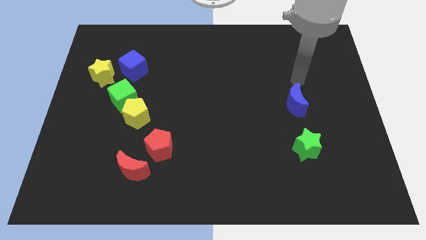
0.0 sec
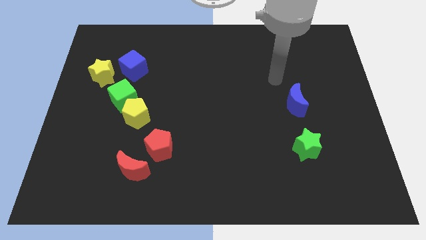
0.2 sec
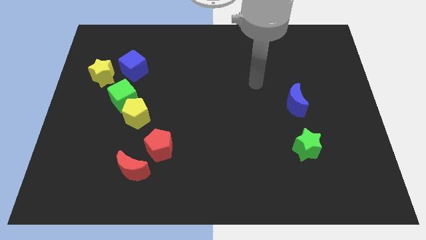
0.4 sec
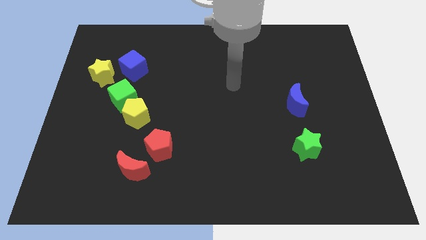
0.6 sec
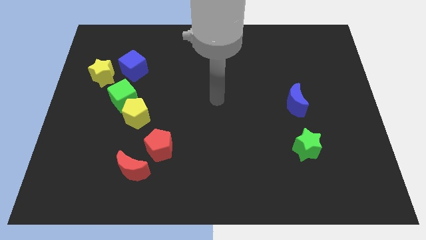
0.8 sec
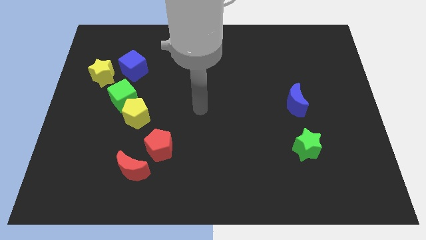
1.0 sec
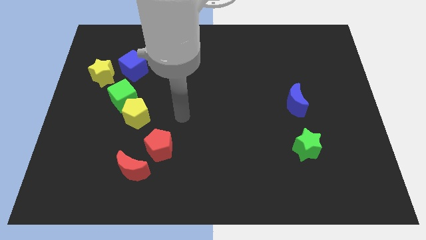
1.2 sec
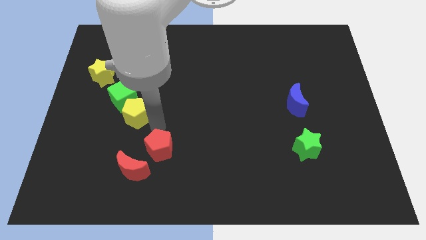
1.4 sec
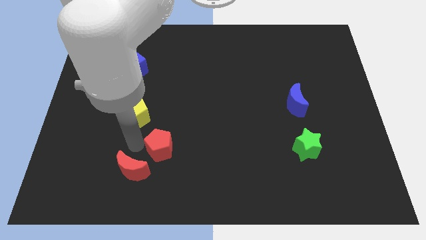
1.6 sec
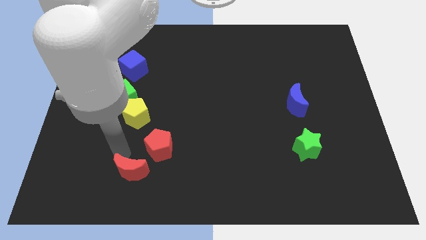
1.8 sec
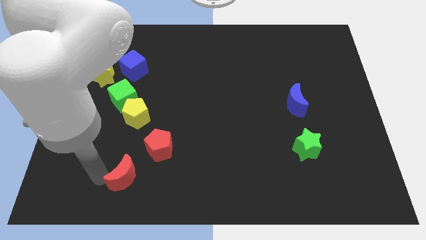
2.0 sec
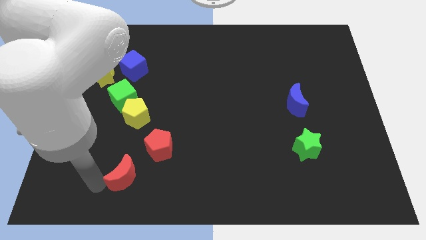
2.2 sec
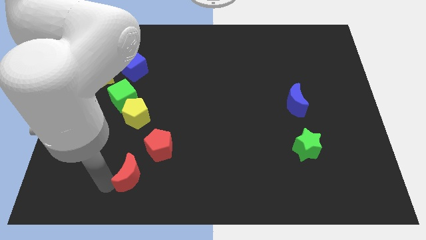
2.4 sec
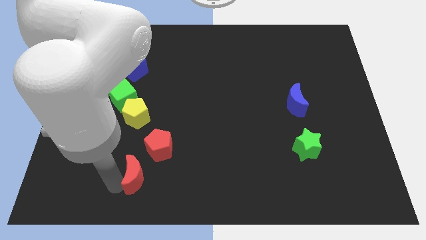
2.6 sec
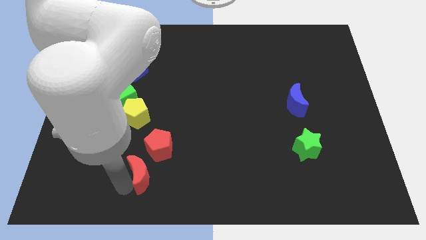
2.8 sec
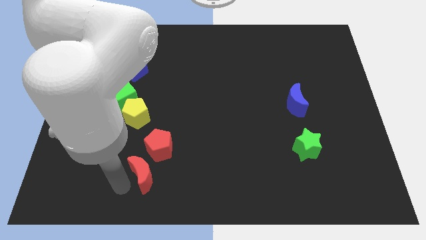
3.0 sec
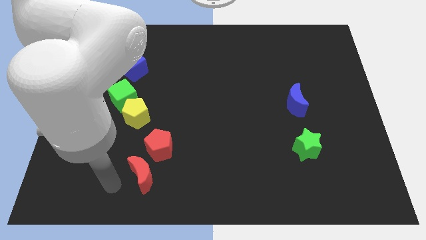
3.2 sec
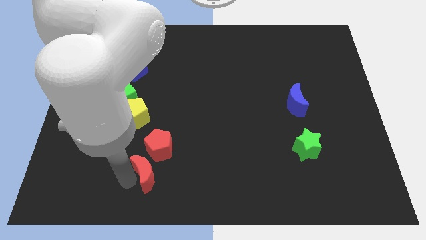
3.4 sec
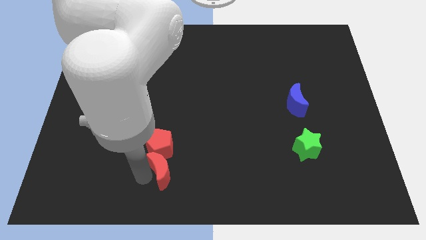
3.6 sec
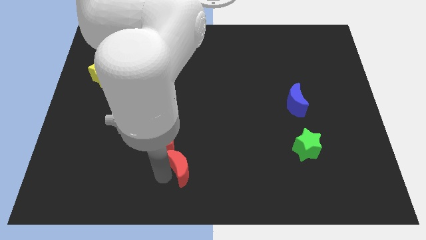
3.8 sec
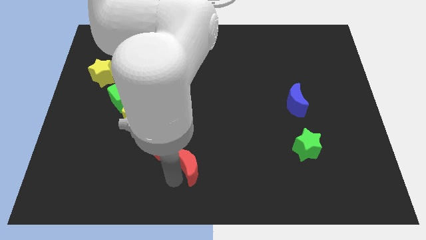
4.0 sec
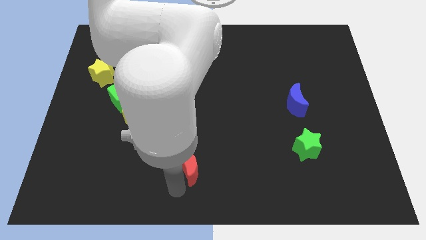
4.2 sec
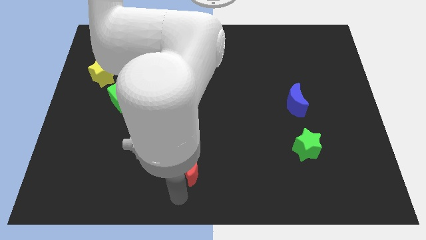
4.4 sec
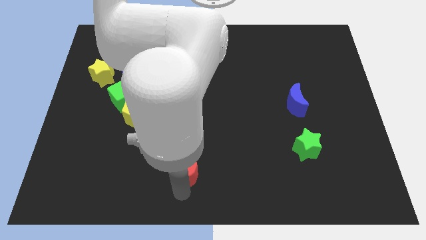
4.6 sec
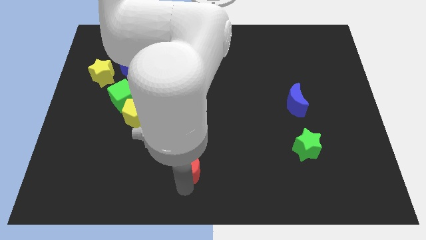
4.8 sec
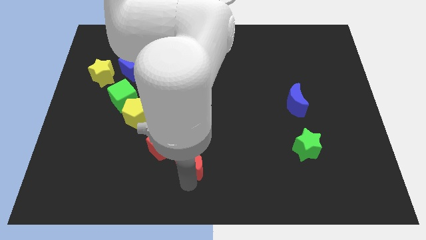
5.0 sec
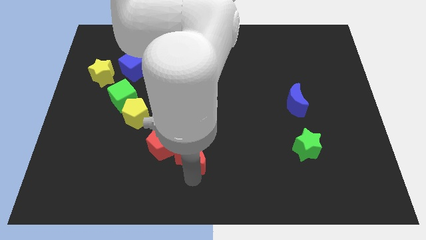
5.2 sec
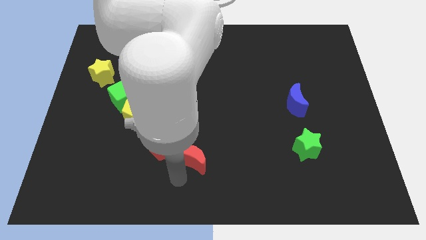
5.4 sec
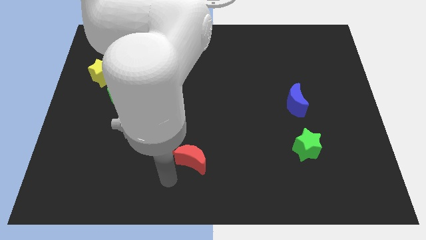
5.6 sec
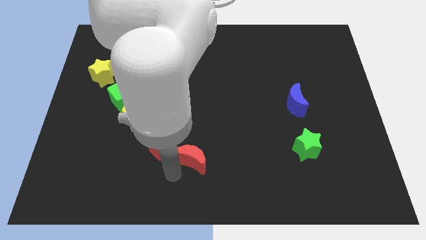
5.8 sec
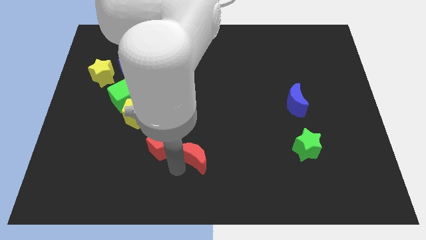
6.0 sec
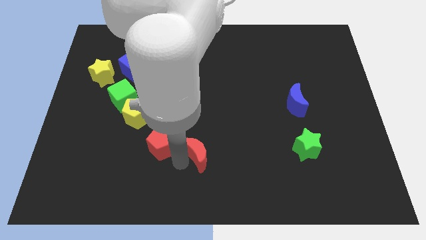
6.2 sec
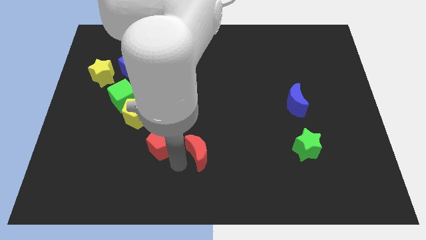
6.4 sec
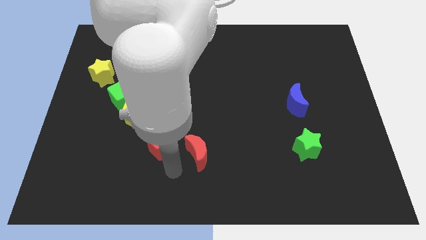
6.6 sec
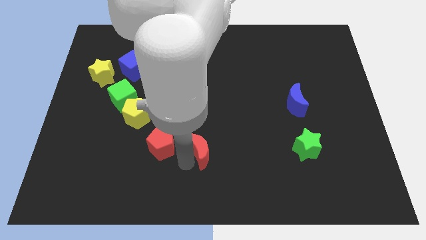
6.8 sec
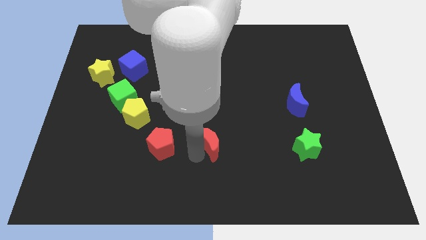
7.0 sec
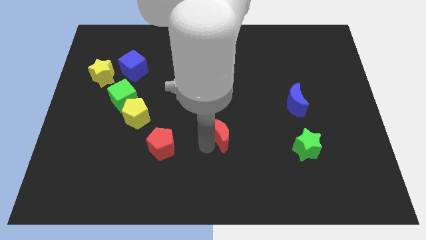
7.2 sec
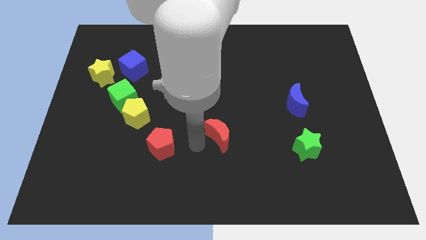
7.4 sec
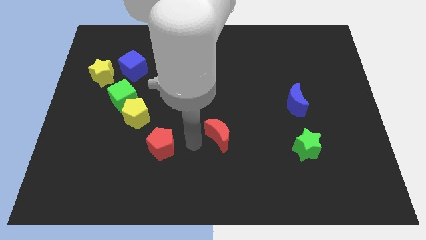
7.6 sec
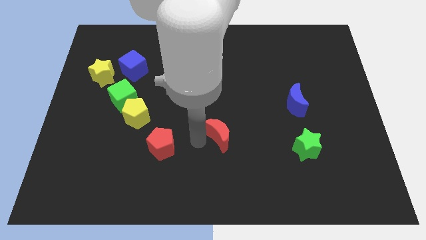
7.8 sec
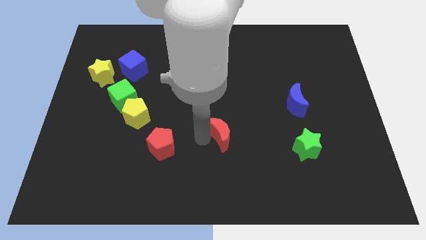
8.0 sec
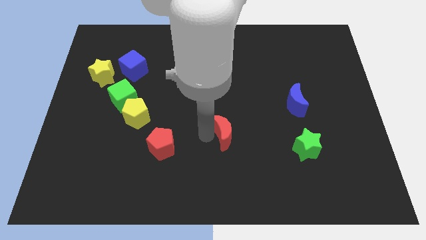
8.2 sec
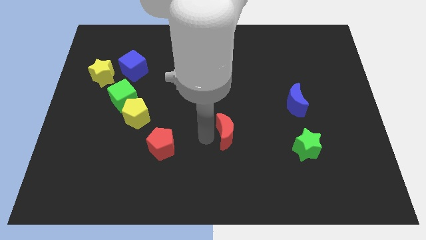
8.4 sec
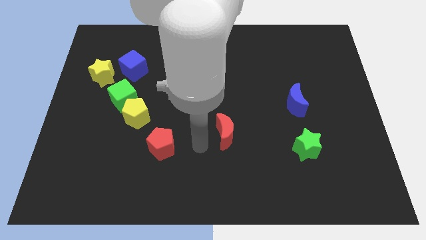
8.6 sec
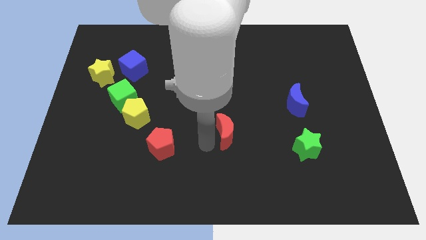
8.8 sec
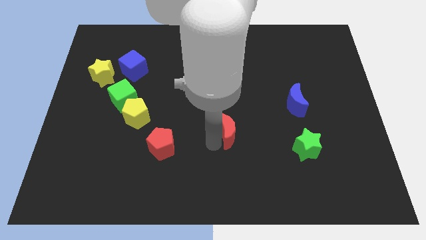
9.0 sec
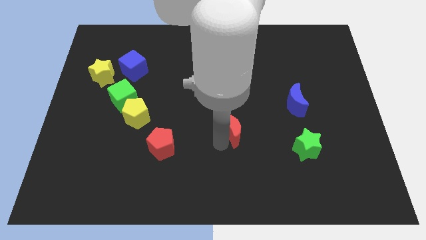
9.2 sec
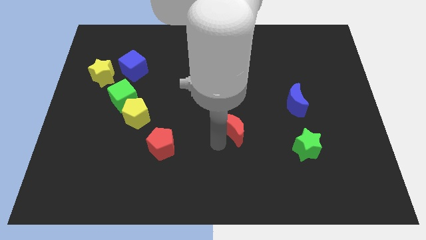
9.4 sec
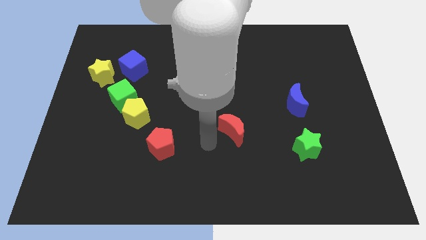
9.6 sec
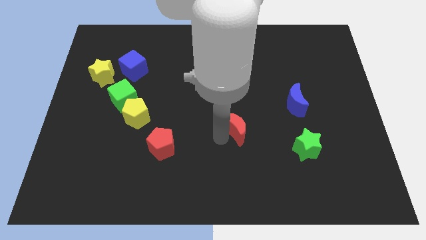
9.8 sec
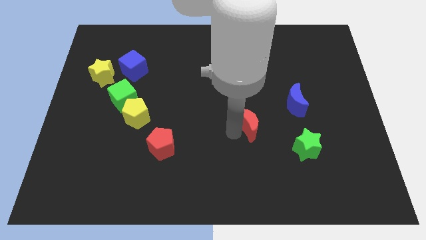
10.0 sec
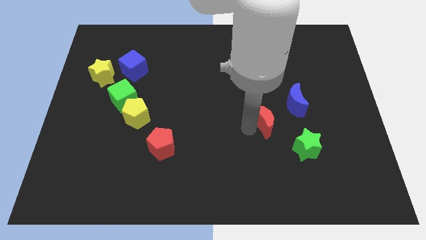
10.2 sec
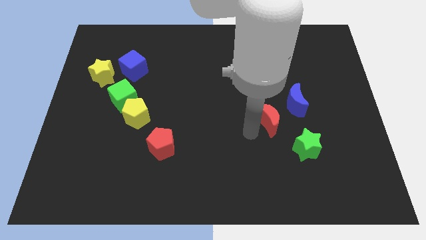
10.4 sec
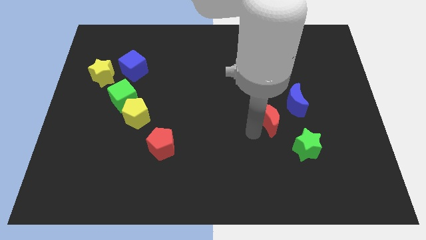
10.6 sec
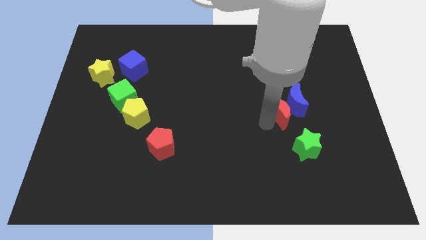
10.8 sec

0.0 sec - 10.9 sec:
slide the red moon next to the blue moon

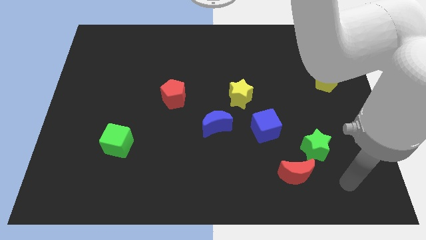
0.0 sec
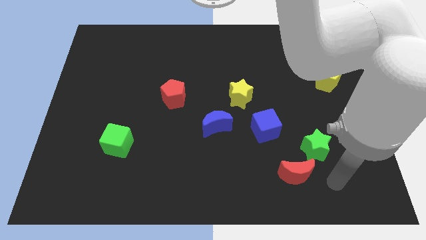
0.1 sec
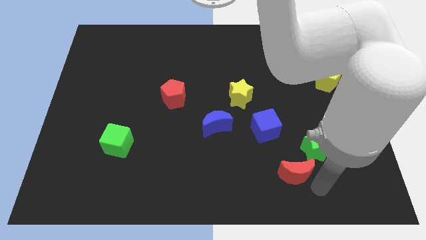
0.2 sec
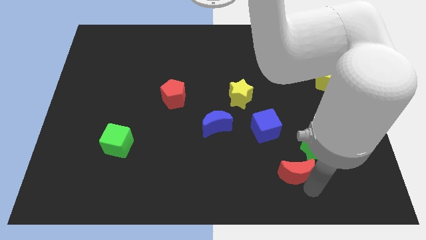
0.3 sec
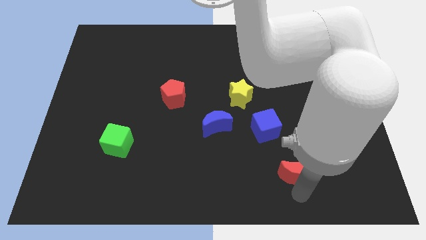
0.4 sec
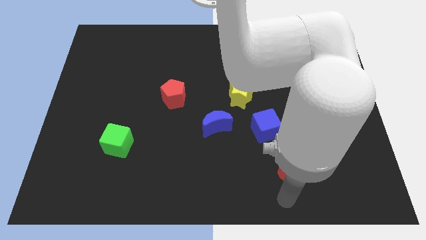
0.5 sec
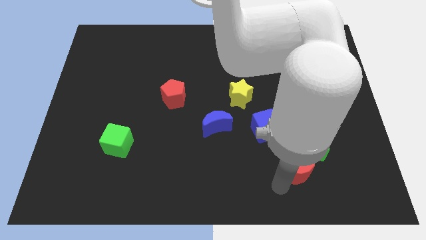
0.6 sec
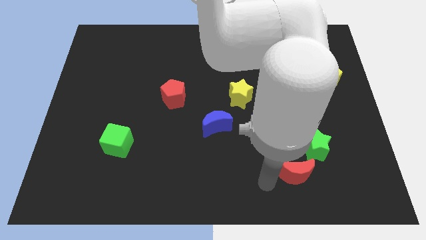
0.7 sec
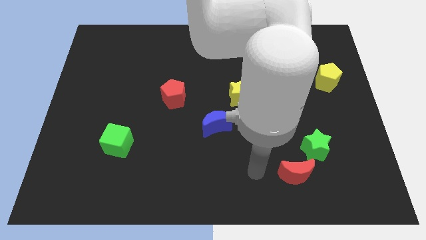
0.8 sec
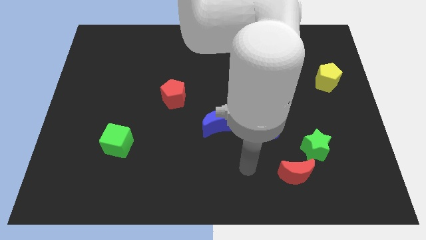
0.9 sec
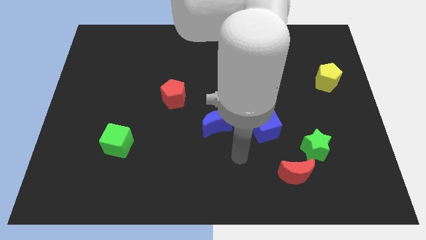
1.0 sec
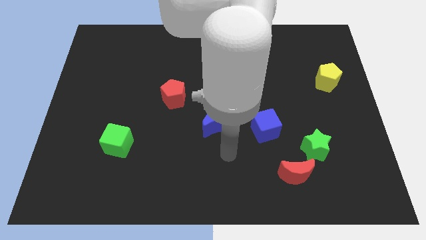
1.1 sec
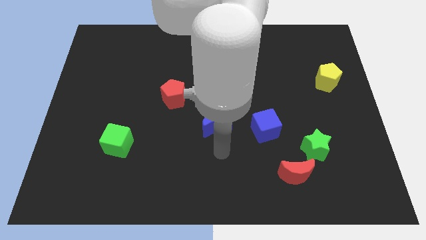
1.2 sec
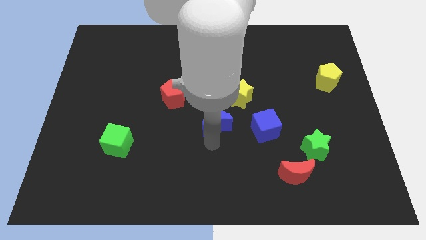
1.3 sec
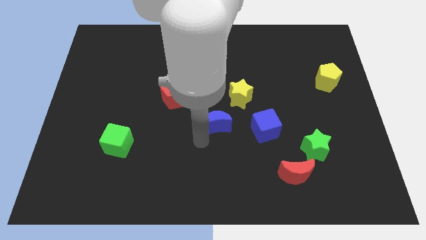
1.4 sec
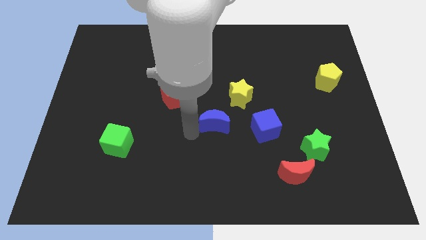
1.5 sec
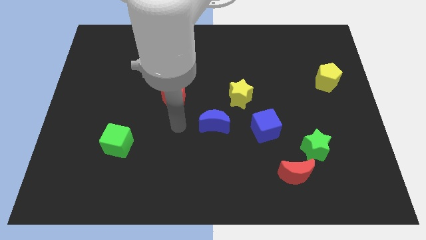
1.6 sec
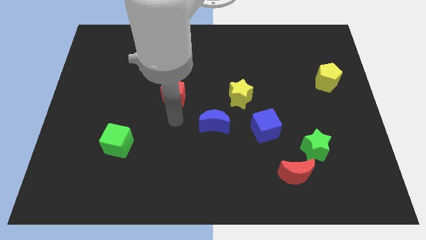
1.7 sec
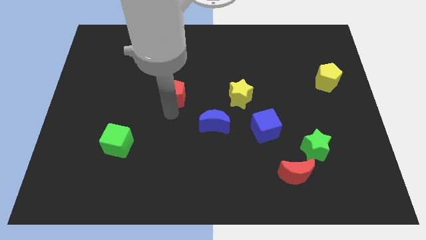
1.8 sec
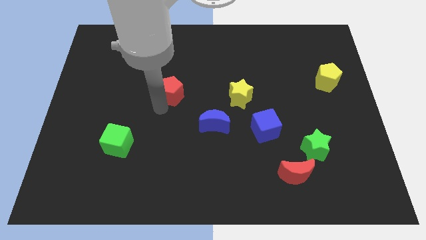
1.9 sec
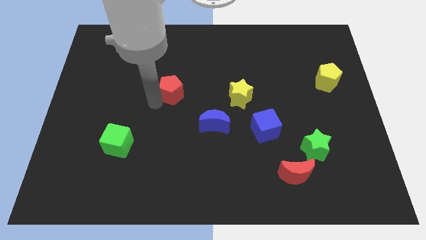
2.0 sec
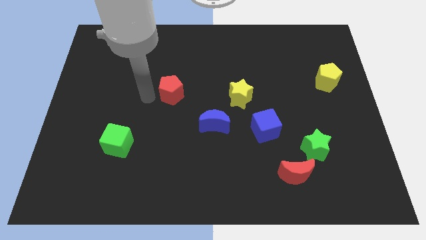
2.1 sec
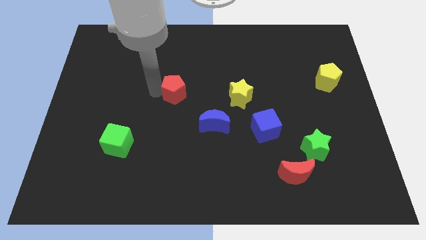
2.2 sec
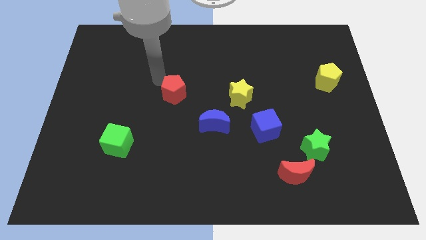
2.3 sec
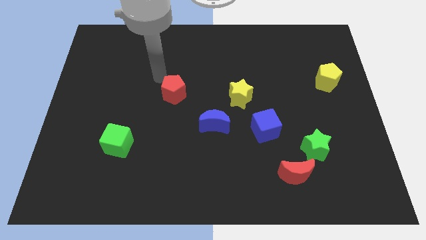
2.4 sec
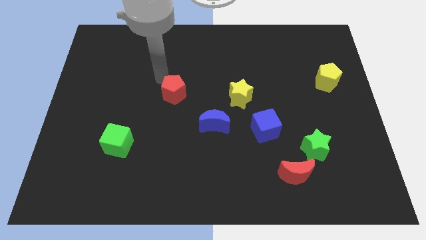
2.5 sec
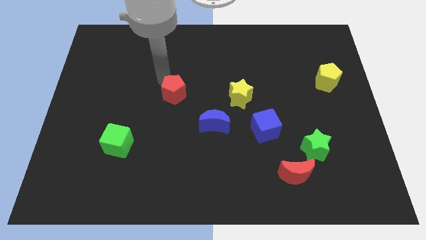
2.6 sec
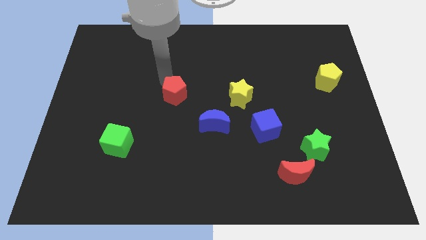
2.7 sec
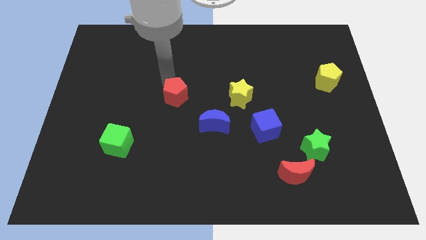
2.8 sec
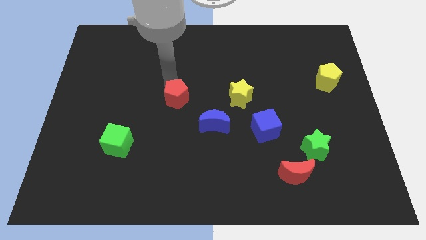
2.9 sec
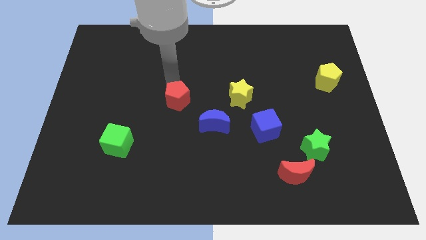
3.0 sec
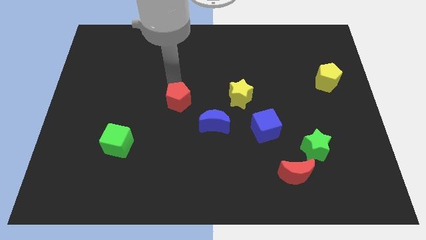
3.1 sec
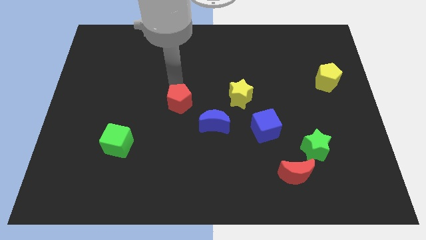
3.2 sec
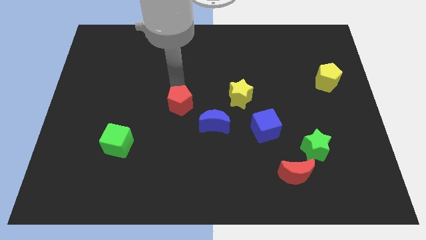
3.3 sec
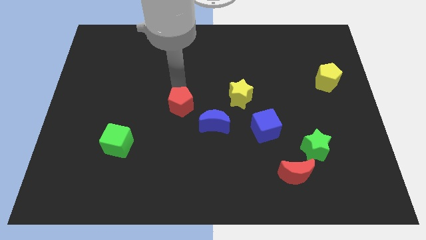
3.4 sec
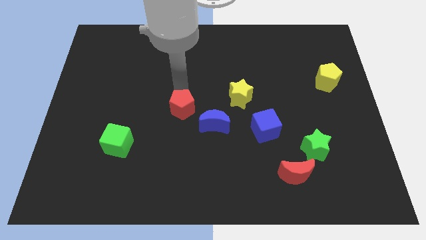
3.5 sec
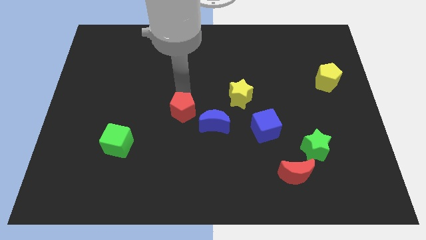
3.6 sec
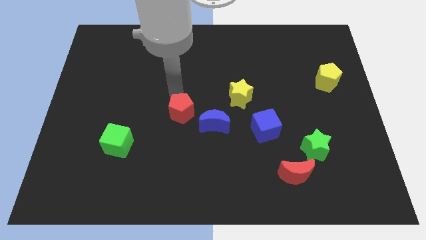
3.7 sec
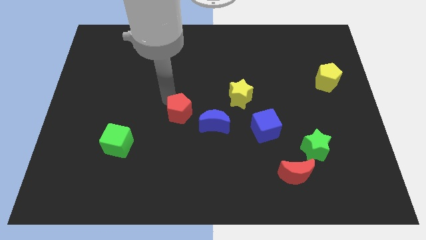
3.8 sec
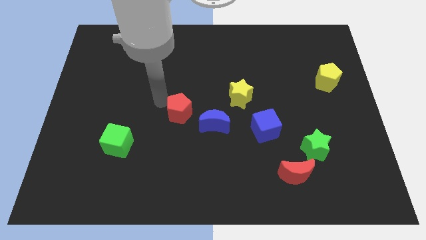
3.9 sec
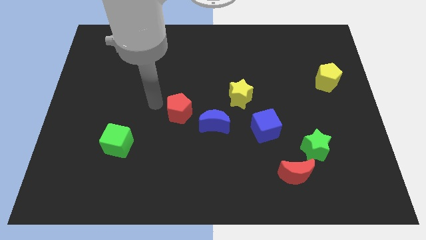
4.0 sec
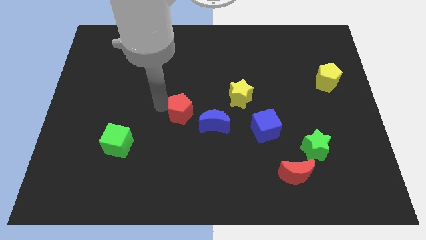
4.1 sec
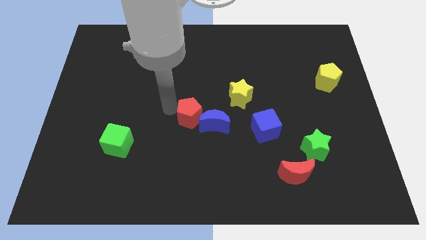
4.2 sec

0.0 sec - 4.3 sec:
move the red pentagon next to the blue moon
